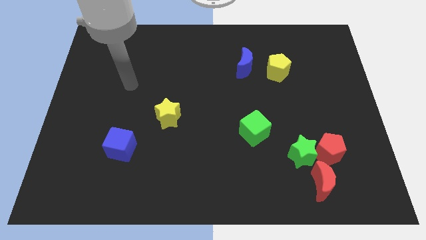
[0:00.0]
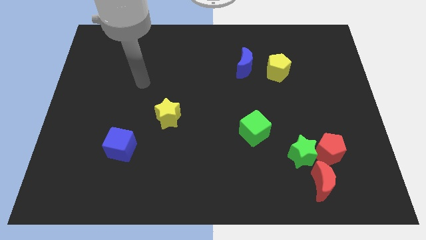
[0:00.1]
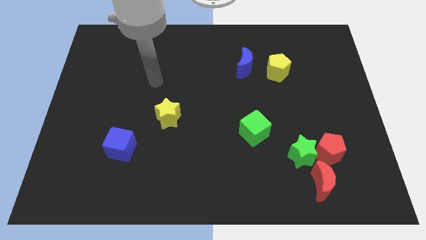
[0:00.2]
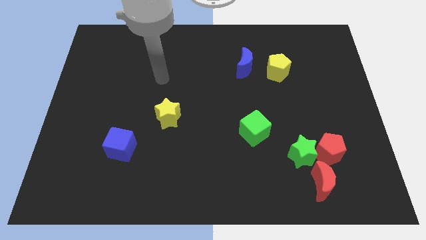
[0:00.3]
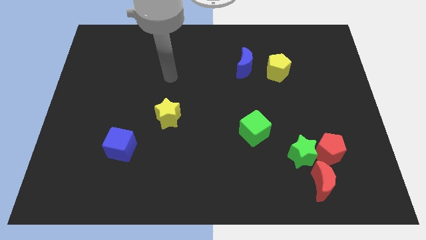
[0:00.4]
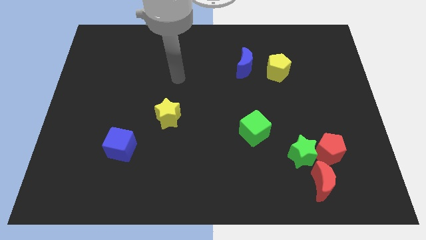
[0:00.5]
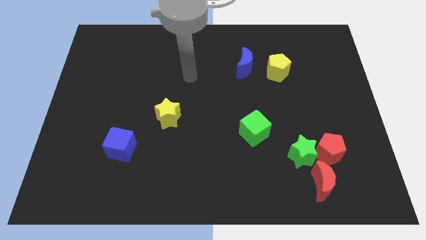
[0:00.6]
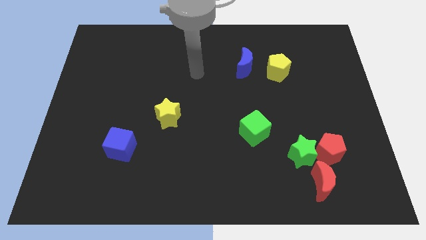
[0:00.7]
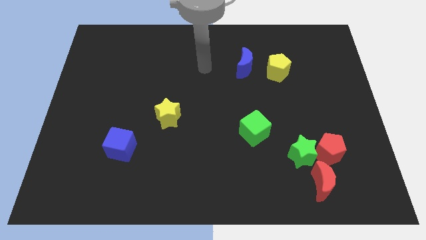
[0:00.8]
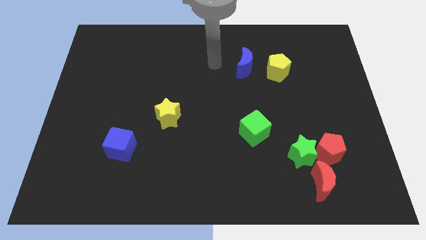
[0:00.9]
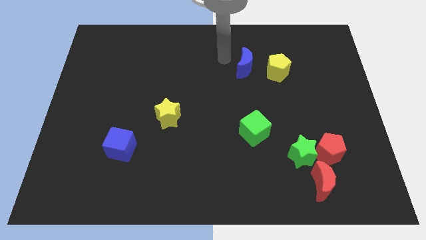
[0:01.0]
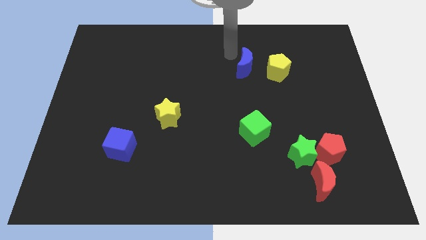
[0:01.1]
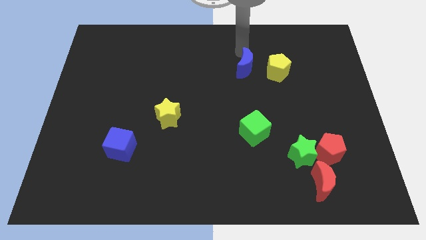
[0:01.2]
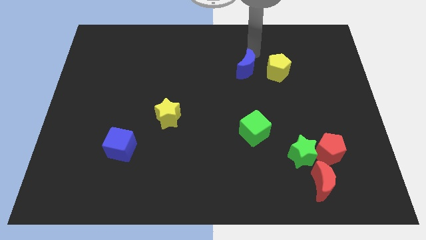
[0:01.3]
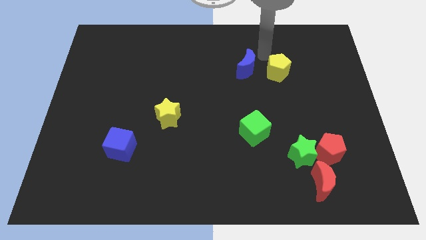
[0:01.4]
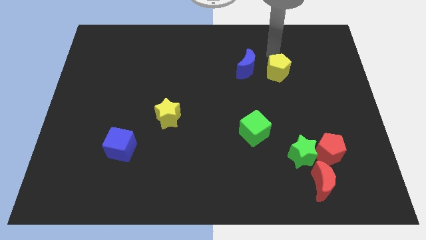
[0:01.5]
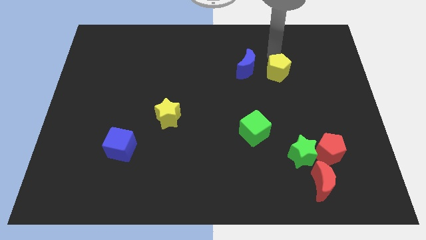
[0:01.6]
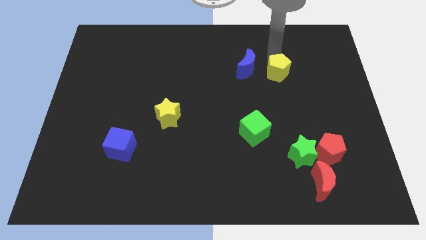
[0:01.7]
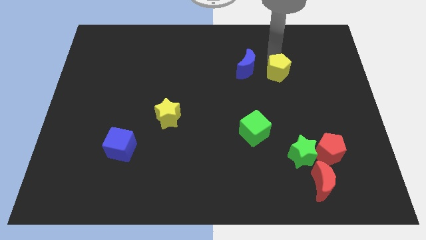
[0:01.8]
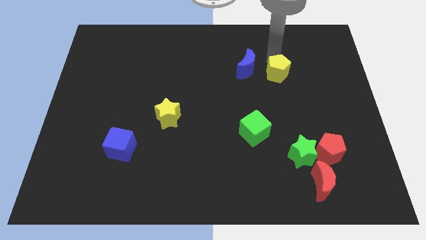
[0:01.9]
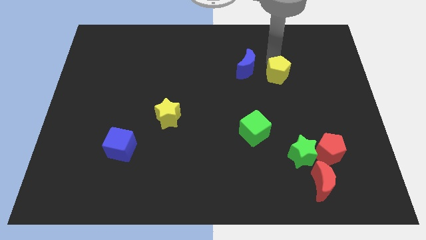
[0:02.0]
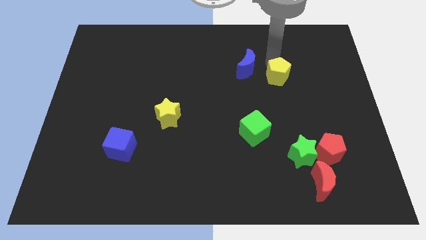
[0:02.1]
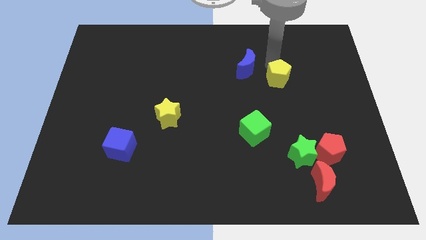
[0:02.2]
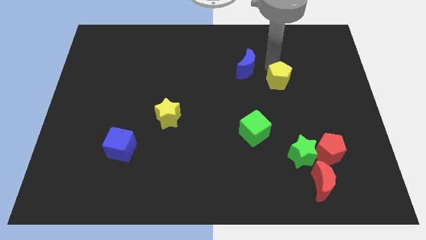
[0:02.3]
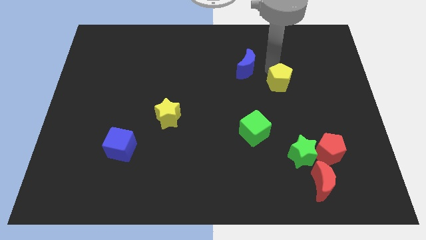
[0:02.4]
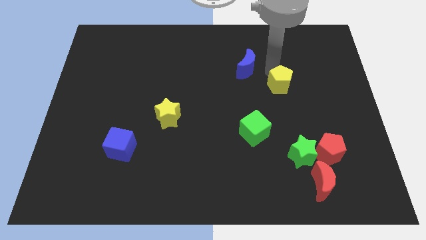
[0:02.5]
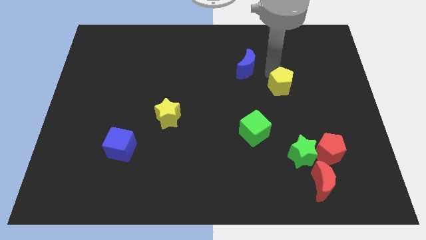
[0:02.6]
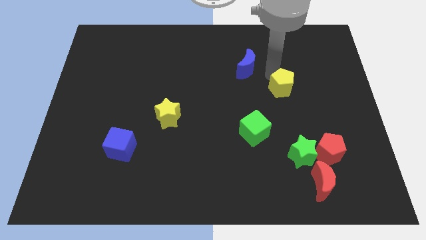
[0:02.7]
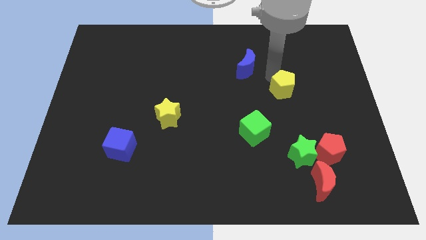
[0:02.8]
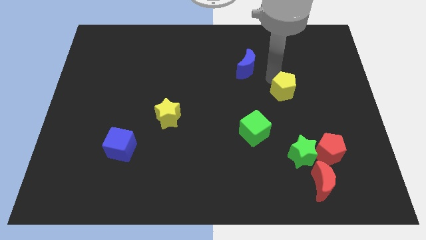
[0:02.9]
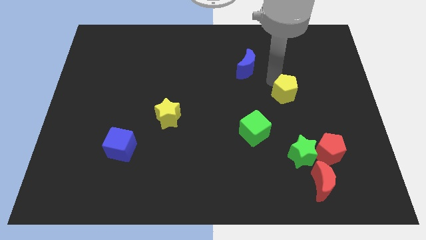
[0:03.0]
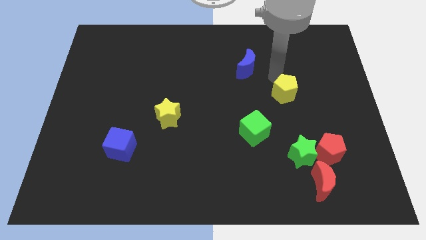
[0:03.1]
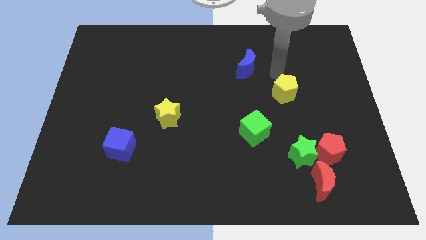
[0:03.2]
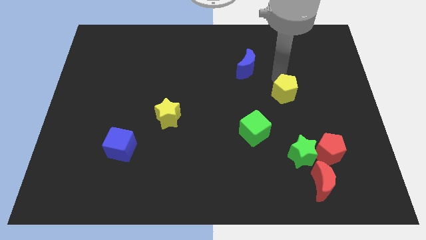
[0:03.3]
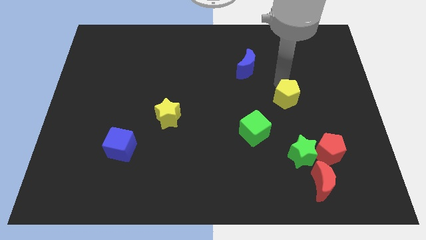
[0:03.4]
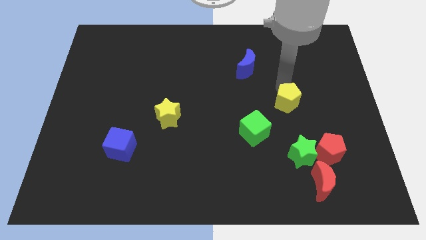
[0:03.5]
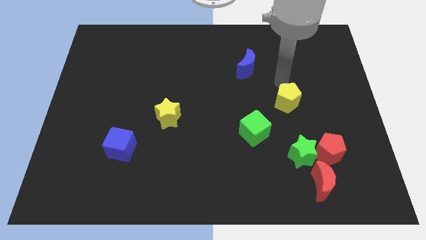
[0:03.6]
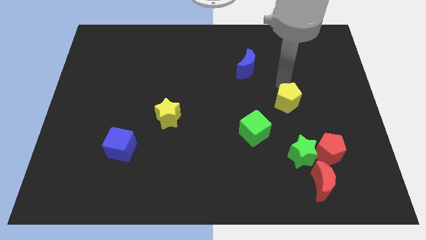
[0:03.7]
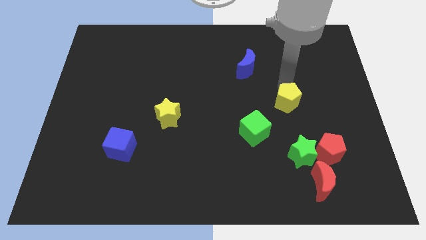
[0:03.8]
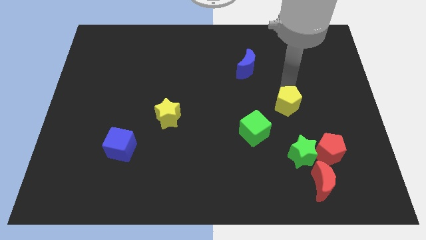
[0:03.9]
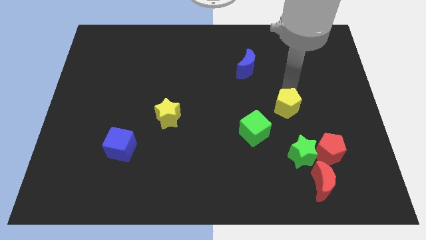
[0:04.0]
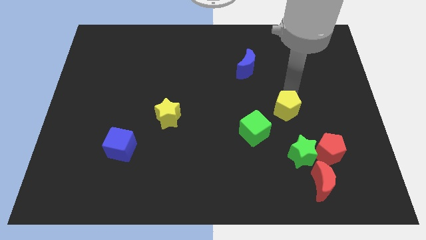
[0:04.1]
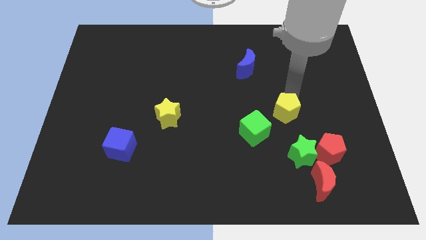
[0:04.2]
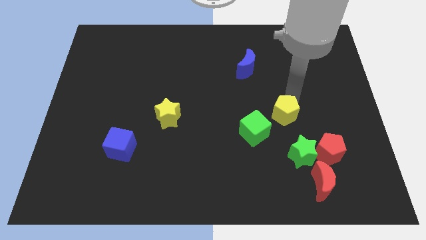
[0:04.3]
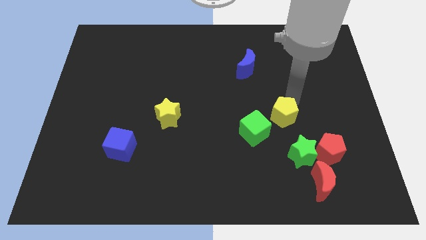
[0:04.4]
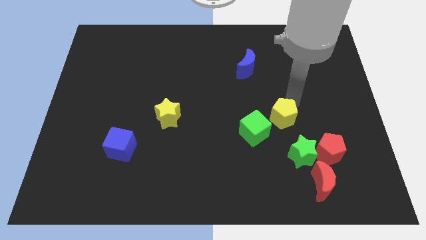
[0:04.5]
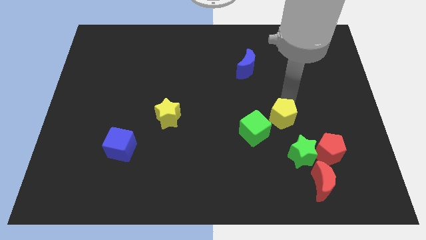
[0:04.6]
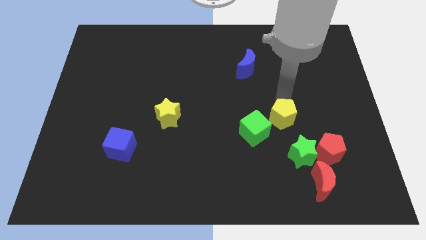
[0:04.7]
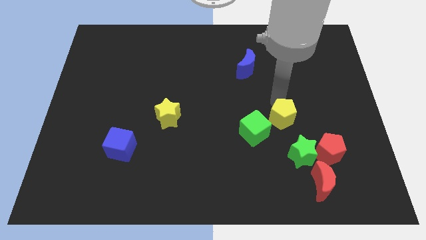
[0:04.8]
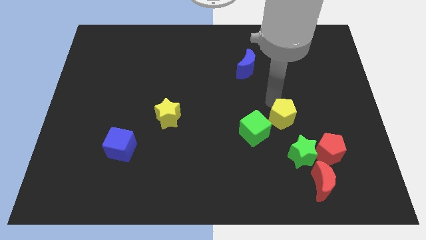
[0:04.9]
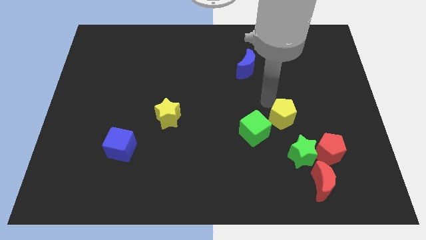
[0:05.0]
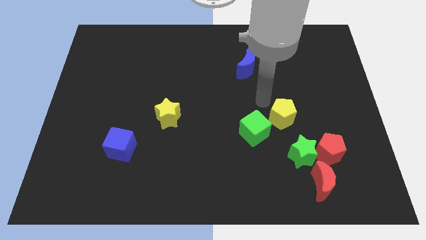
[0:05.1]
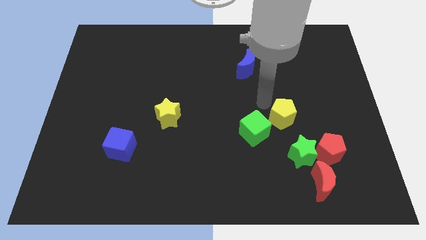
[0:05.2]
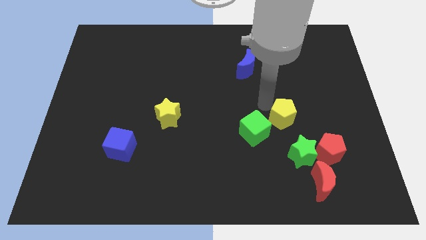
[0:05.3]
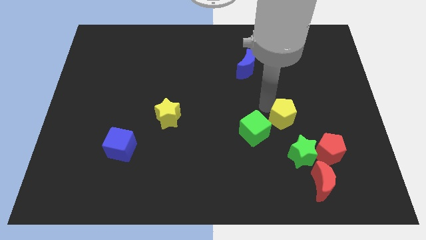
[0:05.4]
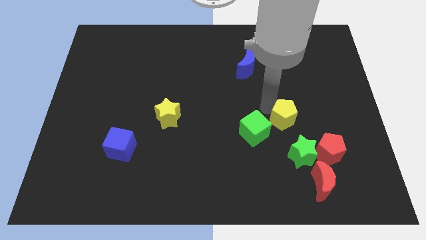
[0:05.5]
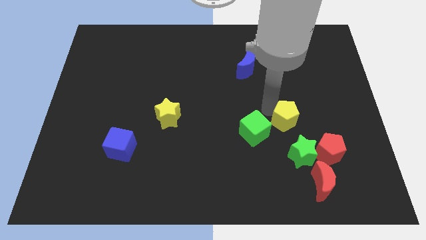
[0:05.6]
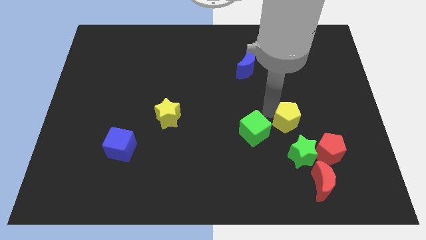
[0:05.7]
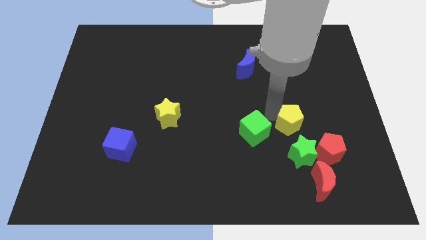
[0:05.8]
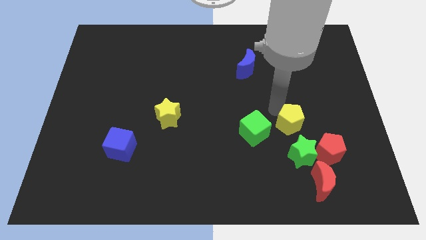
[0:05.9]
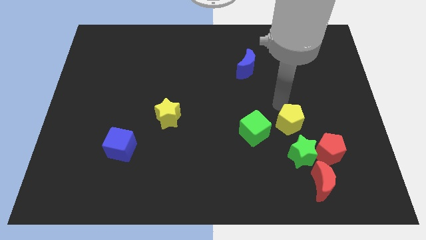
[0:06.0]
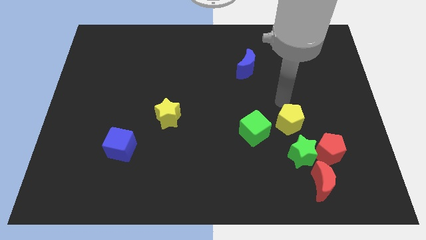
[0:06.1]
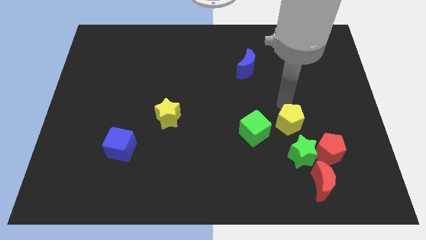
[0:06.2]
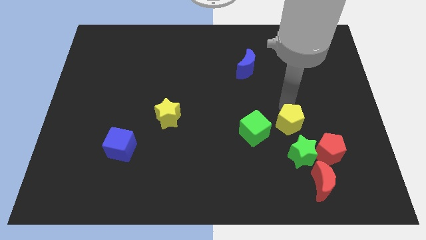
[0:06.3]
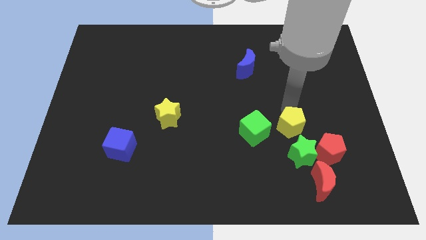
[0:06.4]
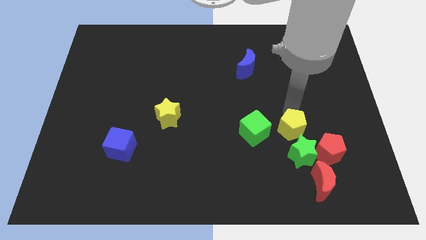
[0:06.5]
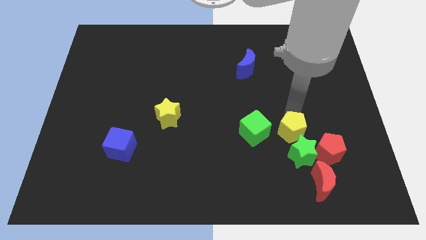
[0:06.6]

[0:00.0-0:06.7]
slide the yellow pentagon to the green star

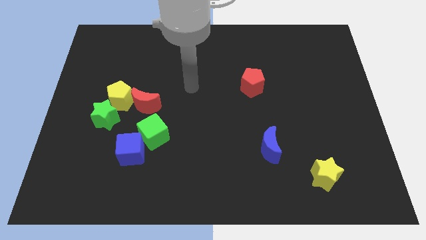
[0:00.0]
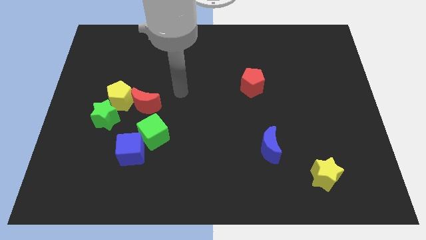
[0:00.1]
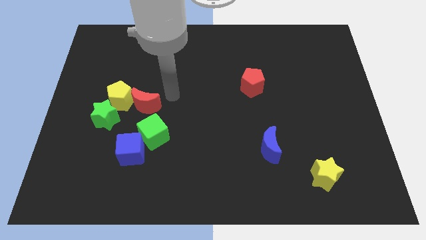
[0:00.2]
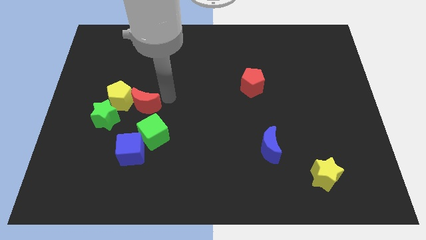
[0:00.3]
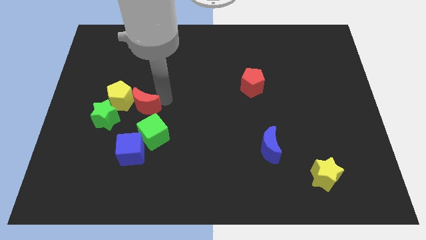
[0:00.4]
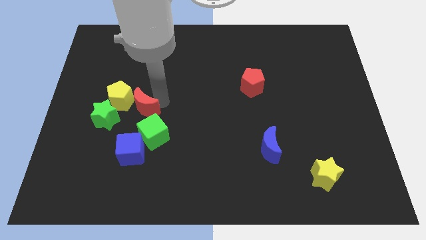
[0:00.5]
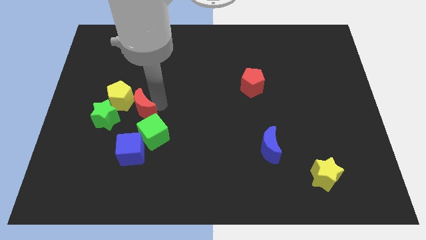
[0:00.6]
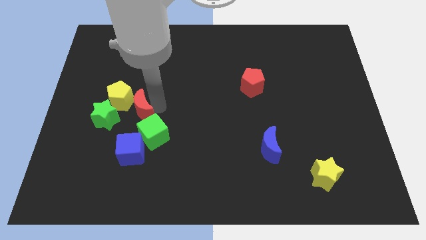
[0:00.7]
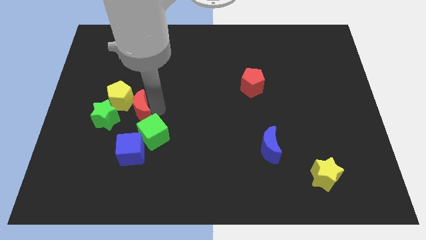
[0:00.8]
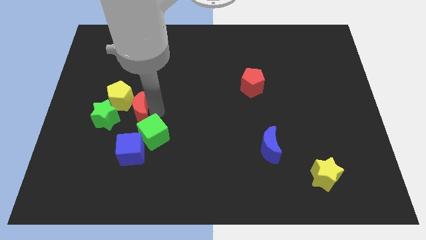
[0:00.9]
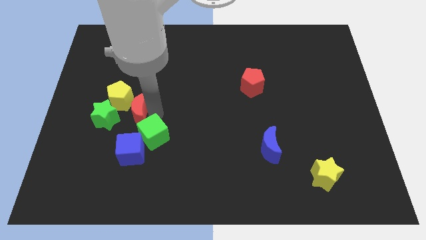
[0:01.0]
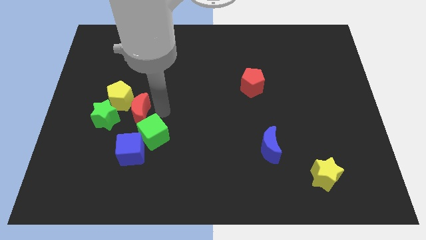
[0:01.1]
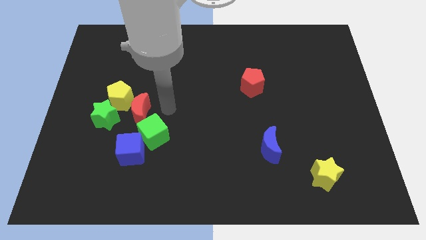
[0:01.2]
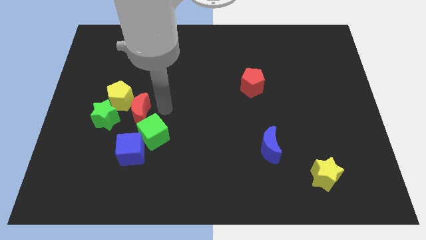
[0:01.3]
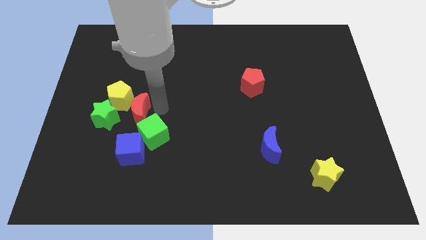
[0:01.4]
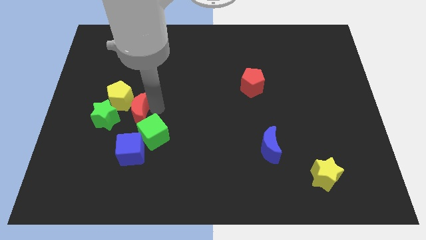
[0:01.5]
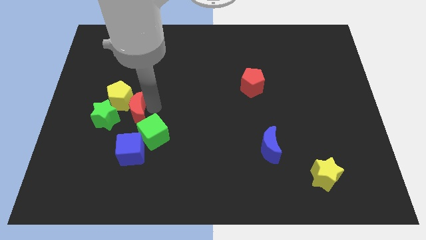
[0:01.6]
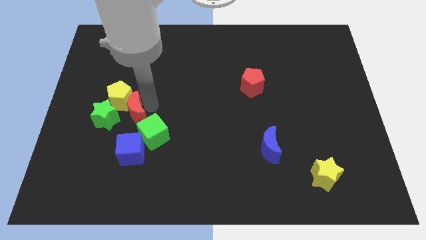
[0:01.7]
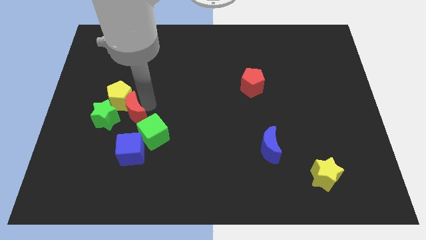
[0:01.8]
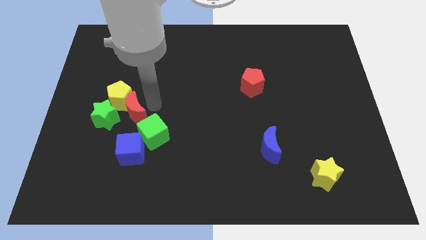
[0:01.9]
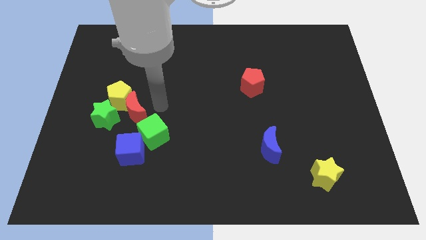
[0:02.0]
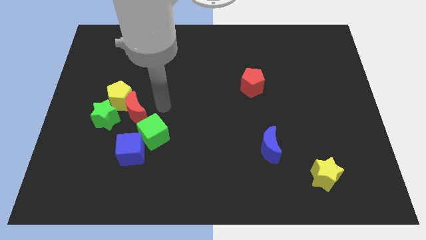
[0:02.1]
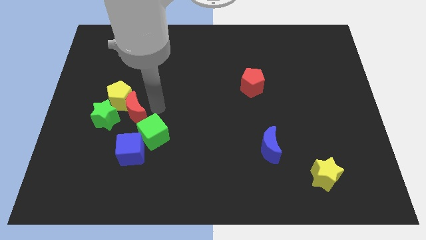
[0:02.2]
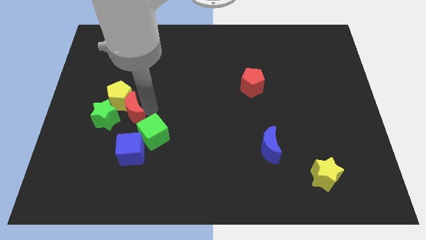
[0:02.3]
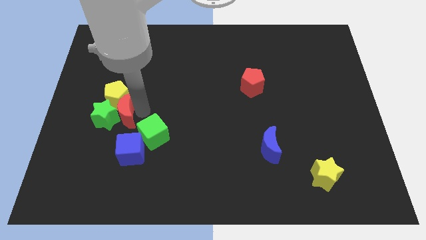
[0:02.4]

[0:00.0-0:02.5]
push the red moon towards the green star
